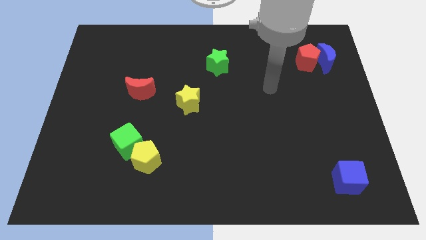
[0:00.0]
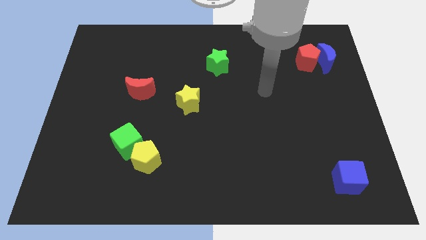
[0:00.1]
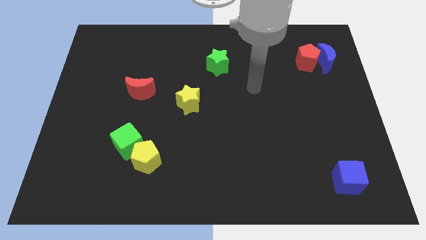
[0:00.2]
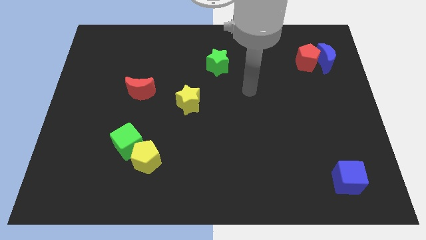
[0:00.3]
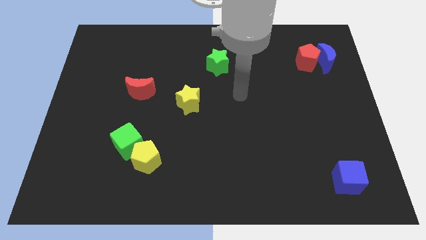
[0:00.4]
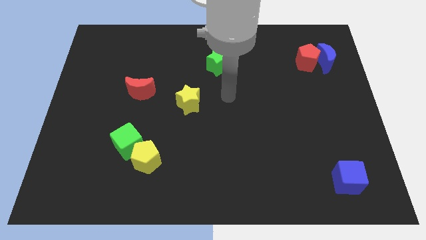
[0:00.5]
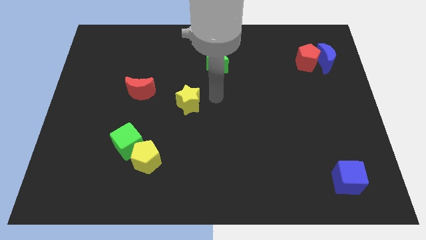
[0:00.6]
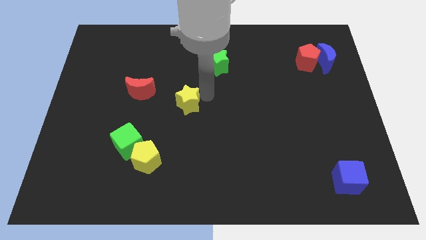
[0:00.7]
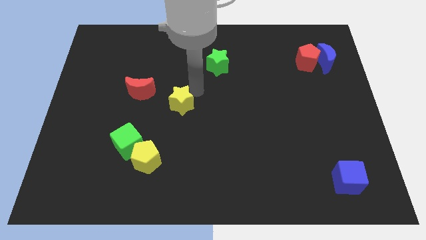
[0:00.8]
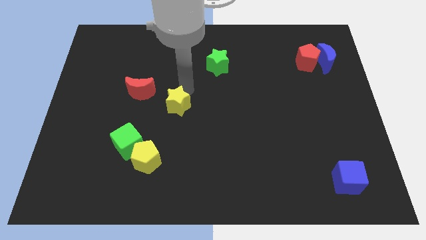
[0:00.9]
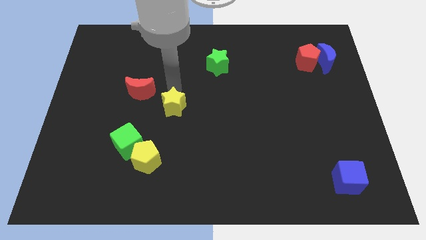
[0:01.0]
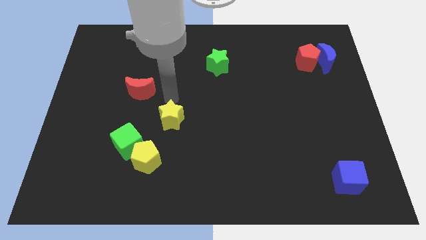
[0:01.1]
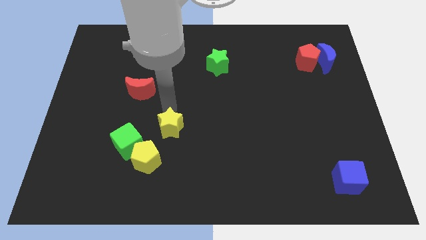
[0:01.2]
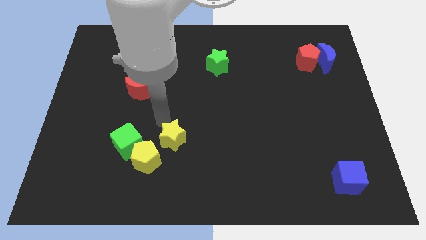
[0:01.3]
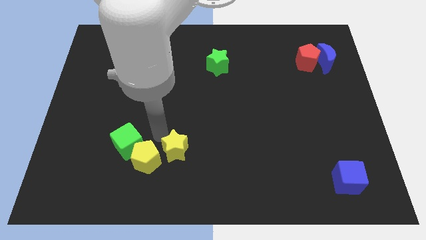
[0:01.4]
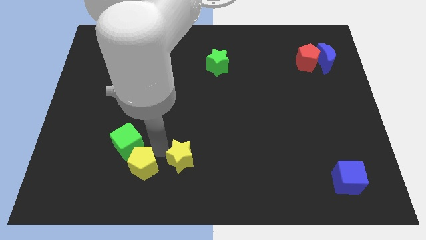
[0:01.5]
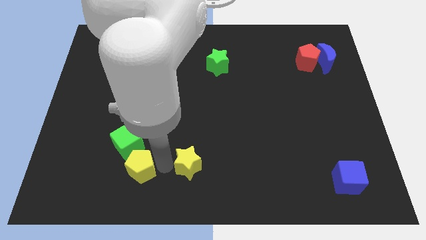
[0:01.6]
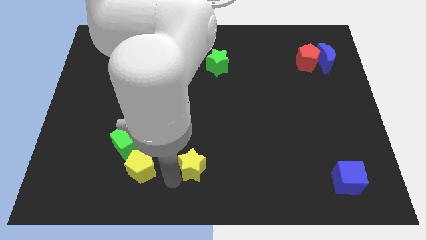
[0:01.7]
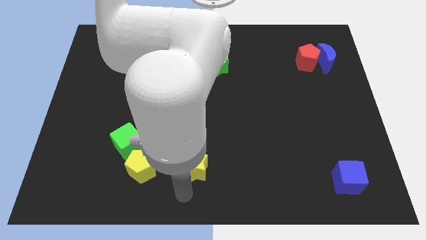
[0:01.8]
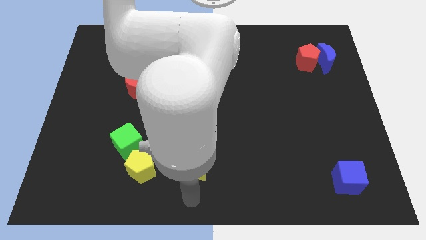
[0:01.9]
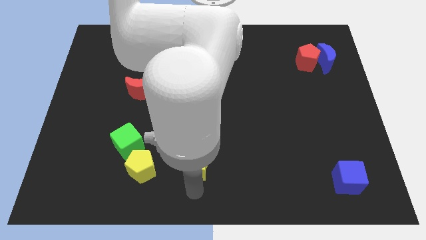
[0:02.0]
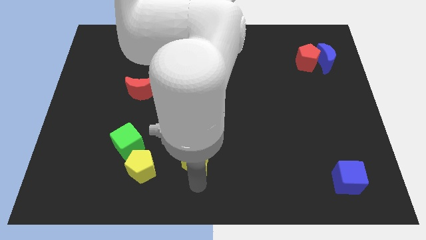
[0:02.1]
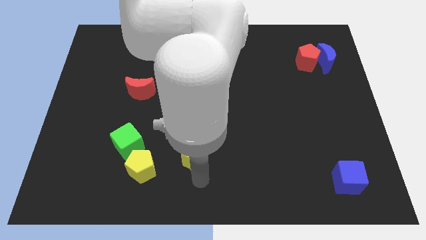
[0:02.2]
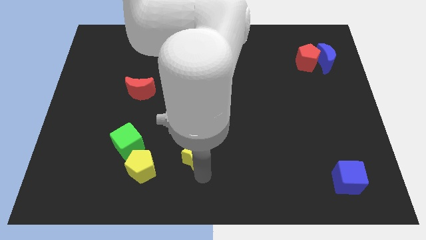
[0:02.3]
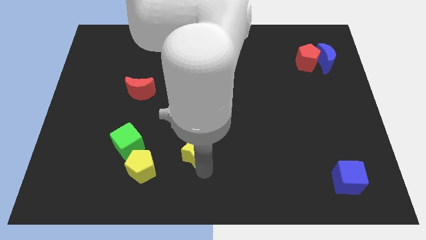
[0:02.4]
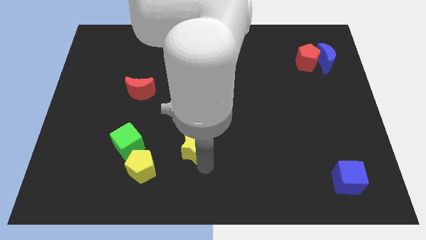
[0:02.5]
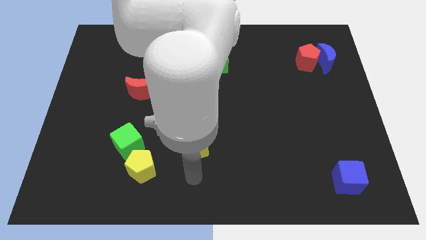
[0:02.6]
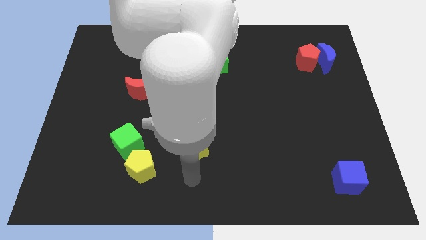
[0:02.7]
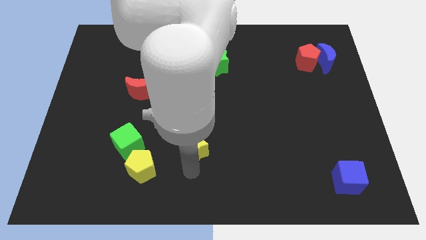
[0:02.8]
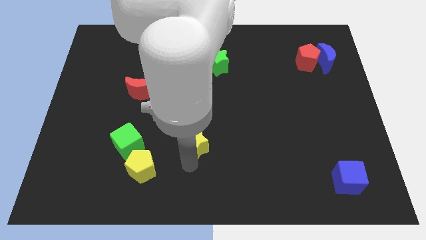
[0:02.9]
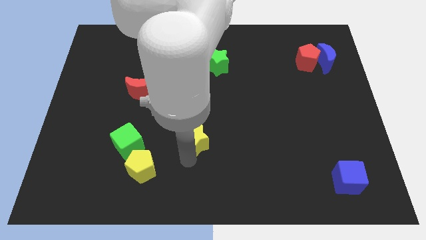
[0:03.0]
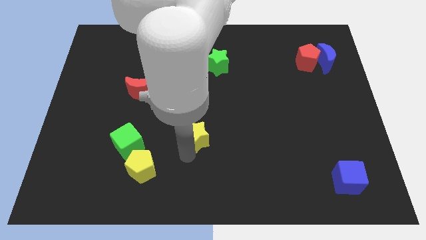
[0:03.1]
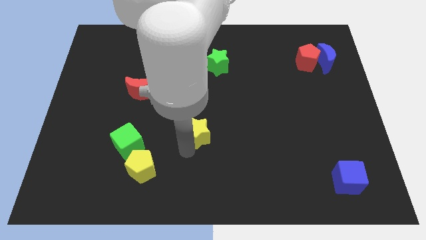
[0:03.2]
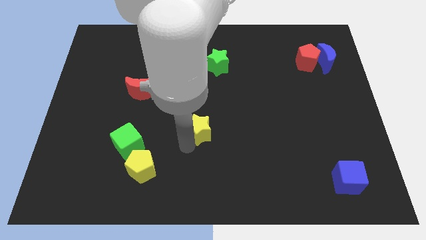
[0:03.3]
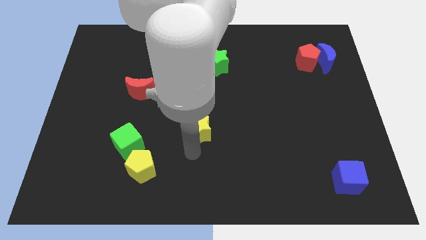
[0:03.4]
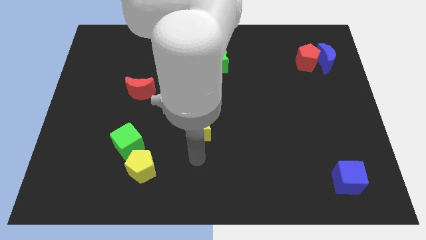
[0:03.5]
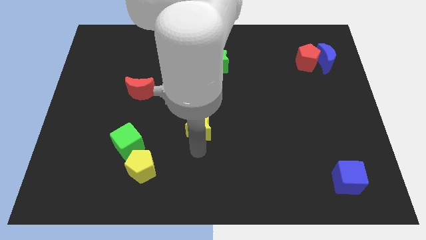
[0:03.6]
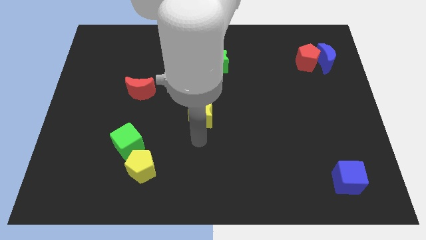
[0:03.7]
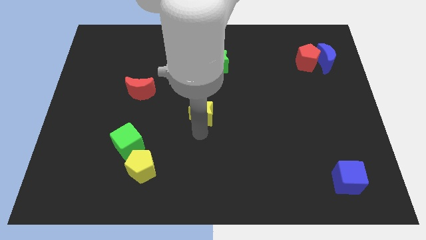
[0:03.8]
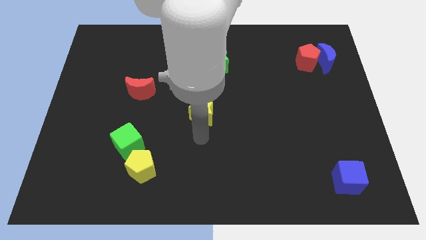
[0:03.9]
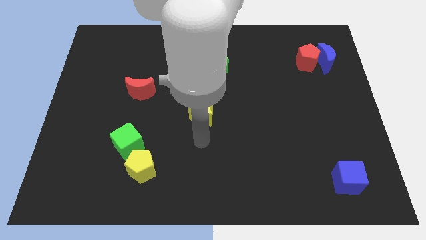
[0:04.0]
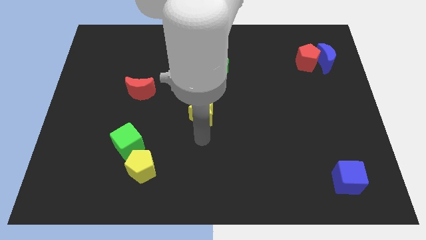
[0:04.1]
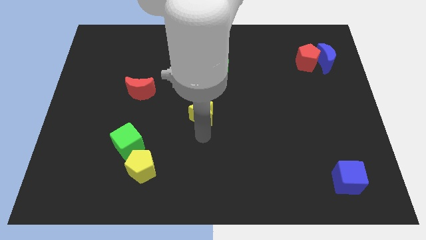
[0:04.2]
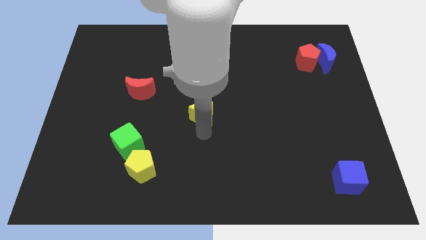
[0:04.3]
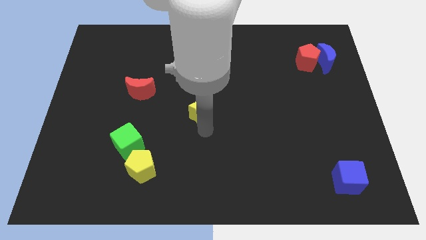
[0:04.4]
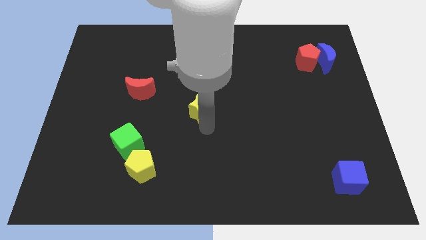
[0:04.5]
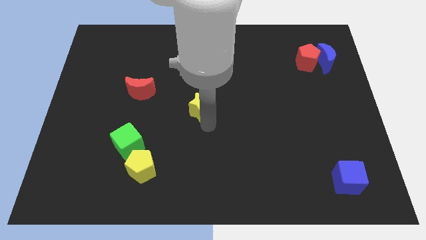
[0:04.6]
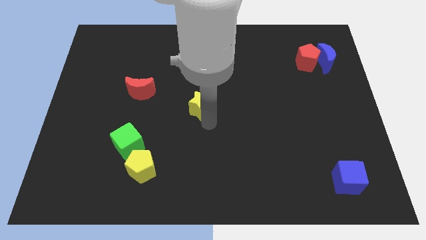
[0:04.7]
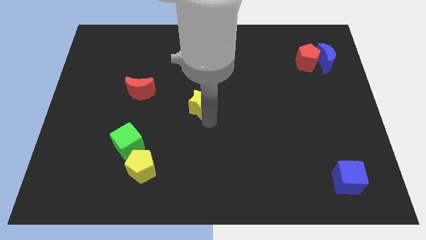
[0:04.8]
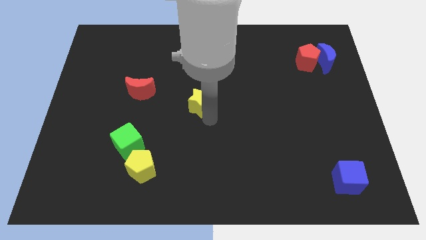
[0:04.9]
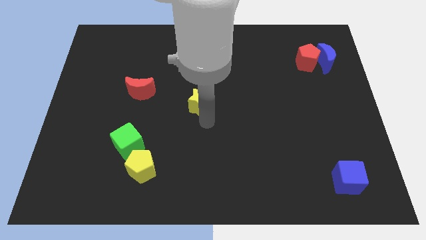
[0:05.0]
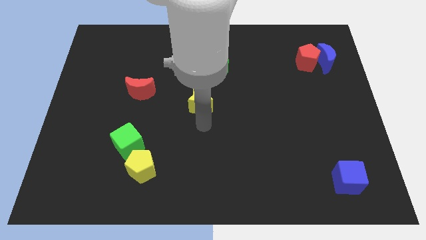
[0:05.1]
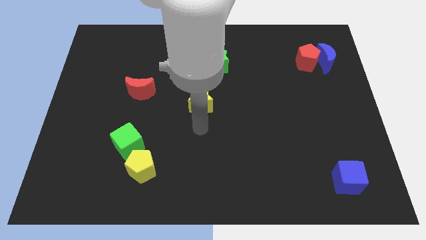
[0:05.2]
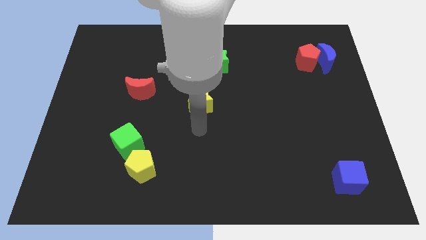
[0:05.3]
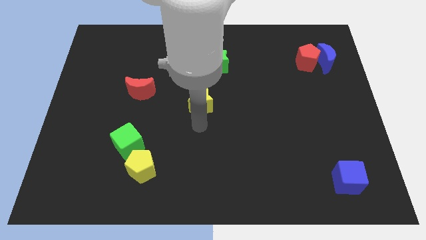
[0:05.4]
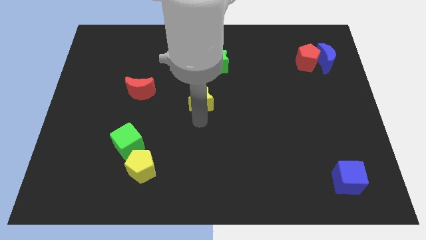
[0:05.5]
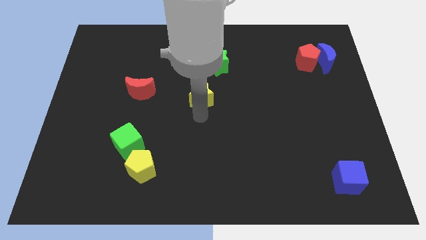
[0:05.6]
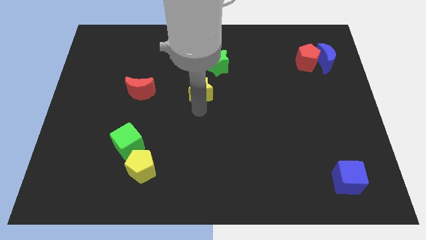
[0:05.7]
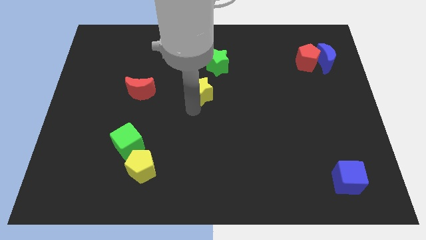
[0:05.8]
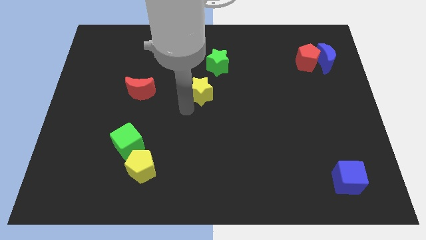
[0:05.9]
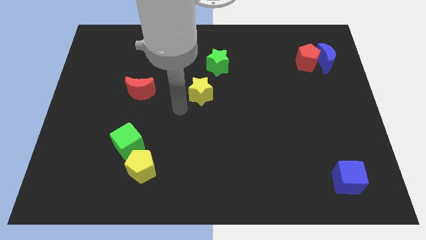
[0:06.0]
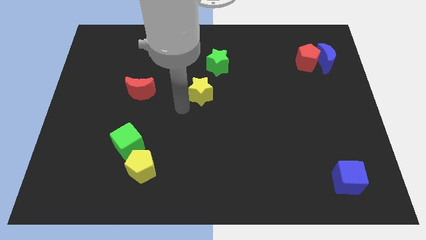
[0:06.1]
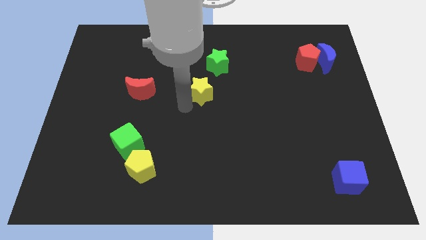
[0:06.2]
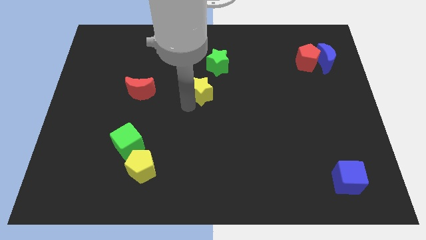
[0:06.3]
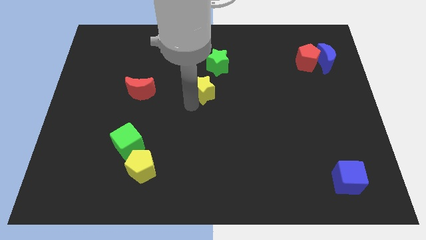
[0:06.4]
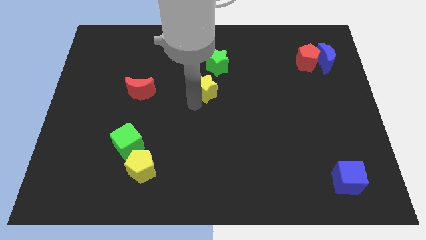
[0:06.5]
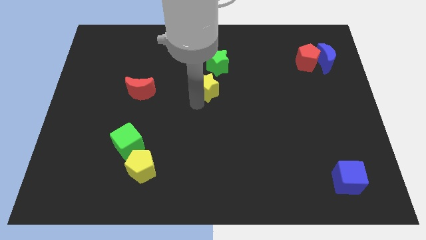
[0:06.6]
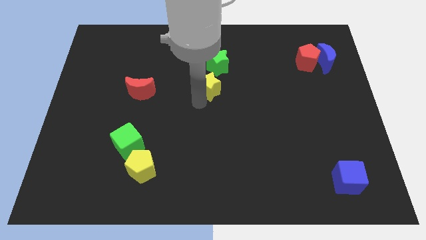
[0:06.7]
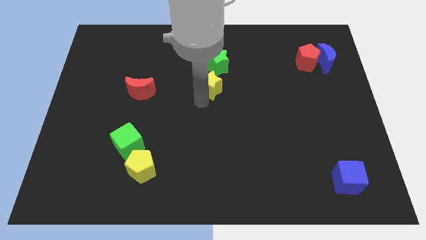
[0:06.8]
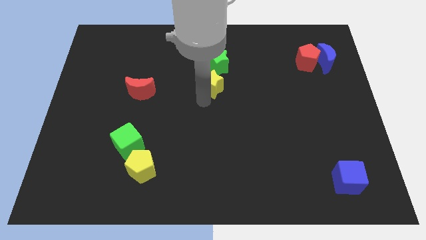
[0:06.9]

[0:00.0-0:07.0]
push the yellow star slightly upwards and right

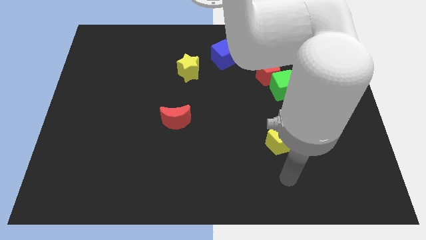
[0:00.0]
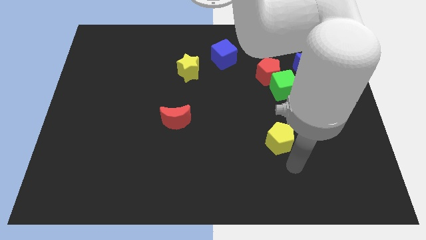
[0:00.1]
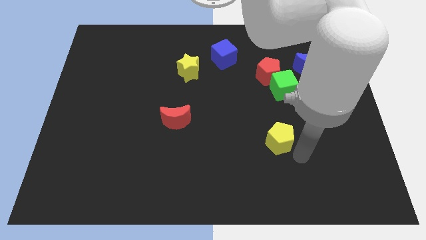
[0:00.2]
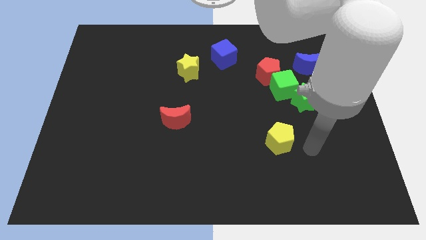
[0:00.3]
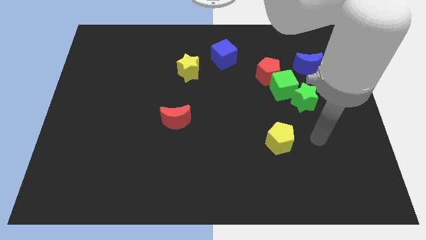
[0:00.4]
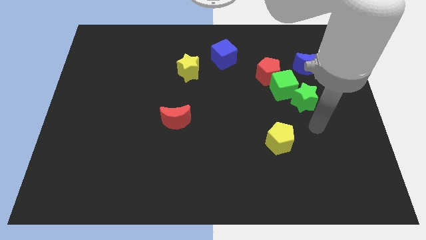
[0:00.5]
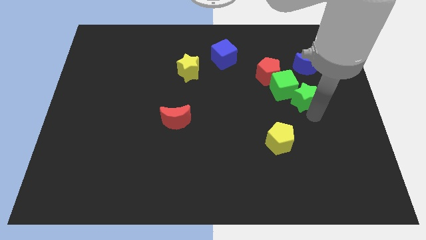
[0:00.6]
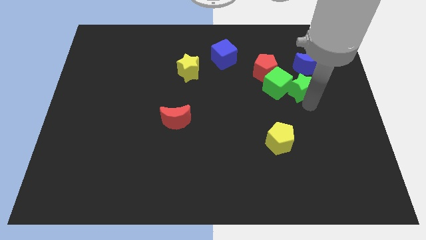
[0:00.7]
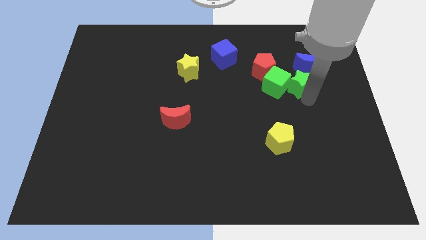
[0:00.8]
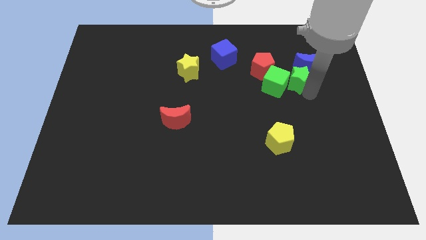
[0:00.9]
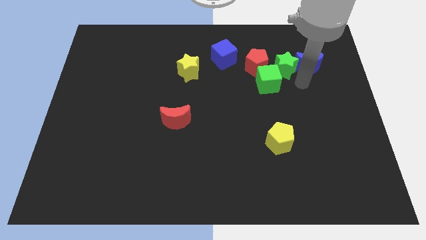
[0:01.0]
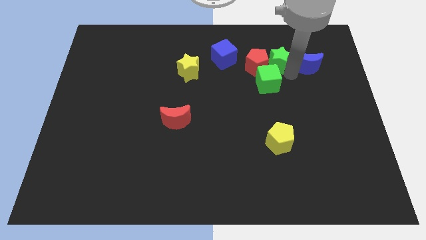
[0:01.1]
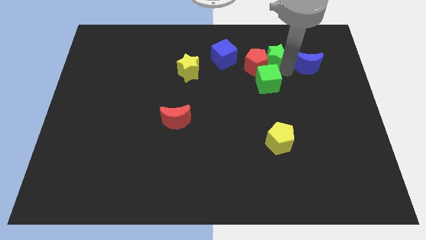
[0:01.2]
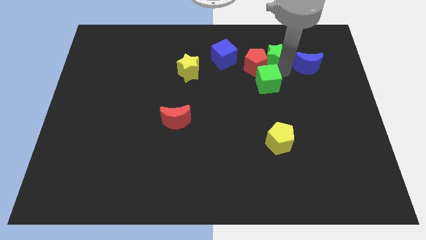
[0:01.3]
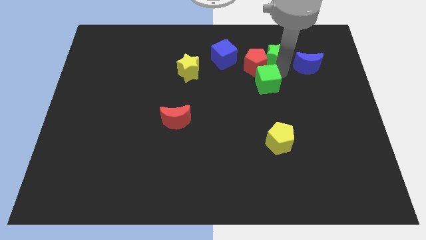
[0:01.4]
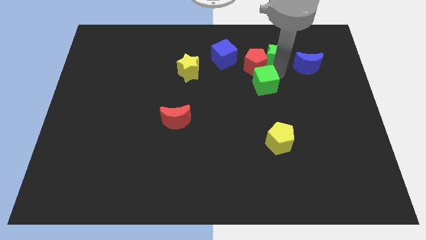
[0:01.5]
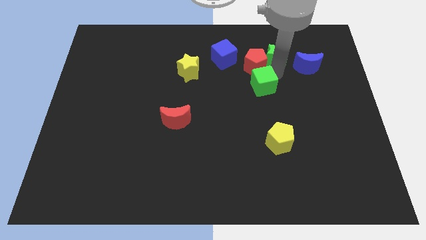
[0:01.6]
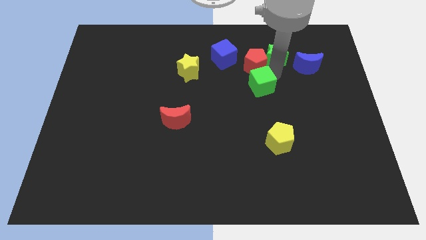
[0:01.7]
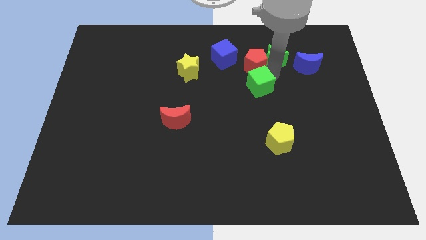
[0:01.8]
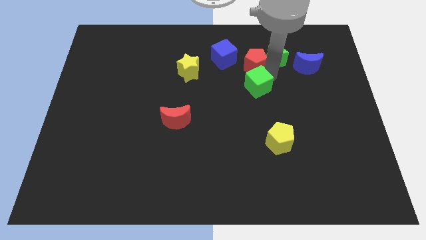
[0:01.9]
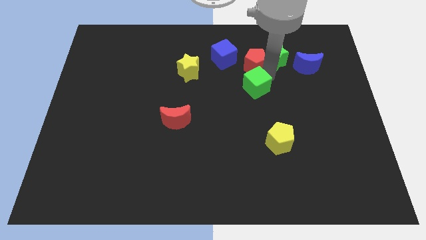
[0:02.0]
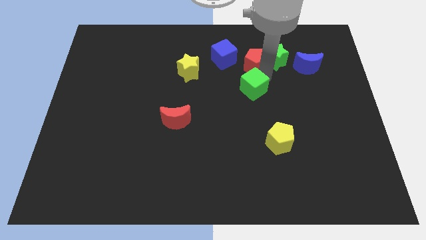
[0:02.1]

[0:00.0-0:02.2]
push the green cube slightly left
